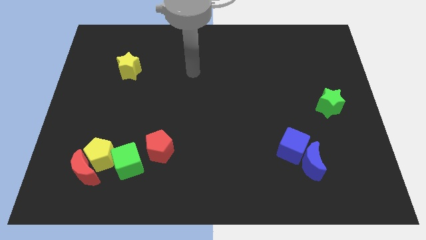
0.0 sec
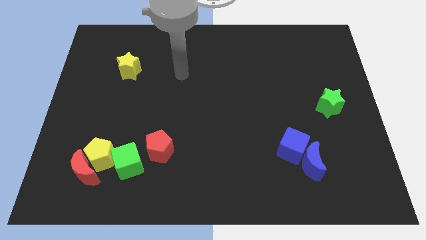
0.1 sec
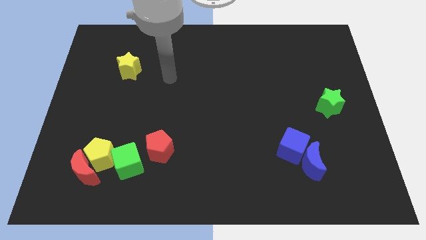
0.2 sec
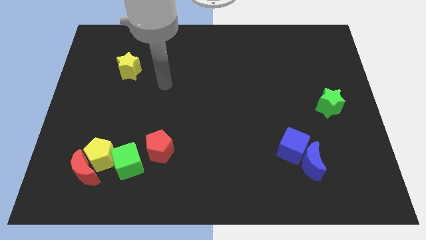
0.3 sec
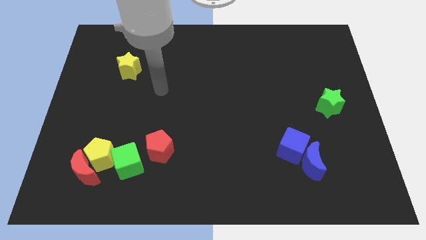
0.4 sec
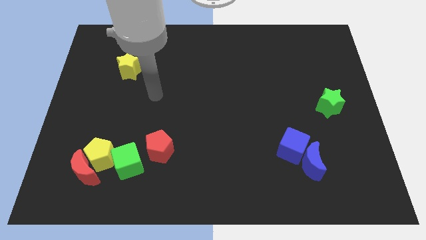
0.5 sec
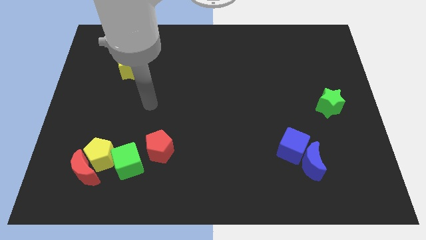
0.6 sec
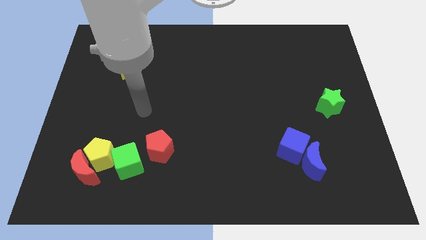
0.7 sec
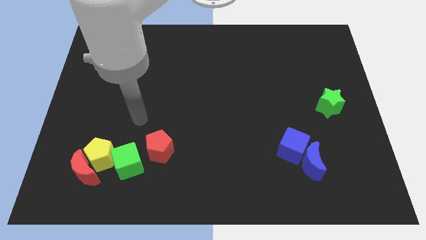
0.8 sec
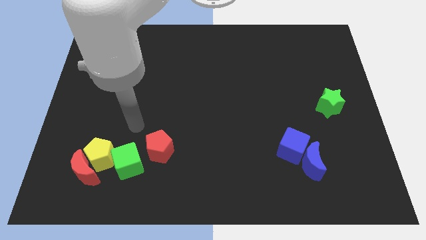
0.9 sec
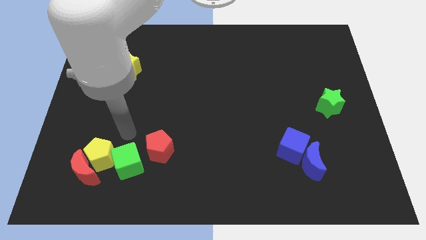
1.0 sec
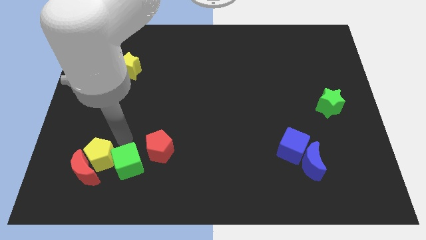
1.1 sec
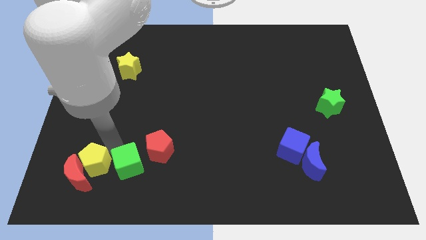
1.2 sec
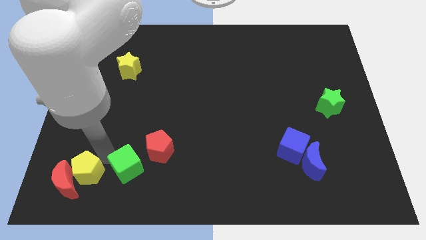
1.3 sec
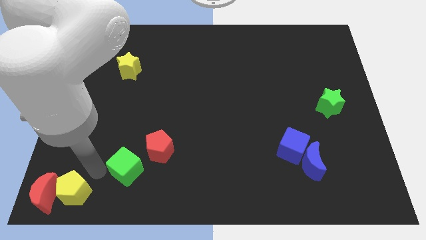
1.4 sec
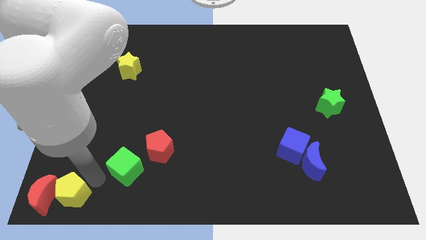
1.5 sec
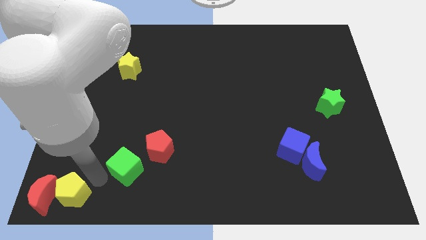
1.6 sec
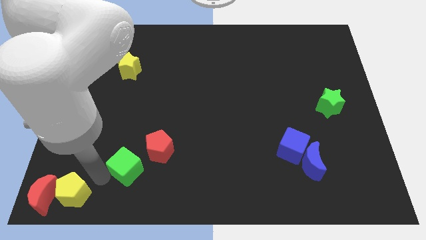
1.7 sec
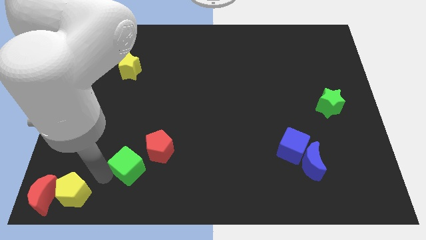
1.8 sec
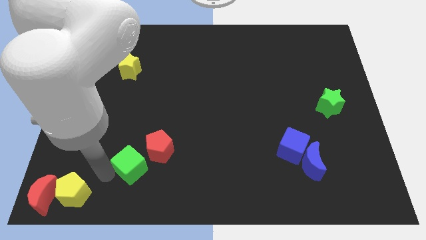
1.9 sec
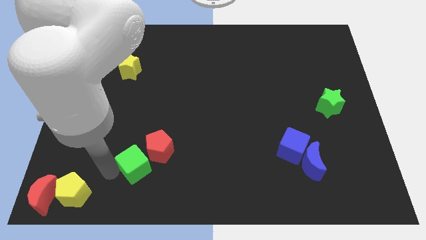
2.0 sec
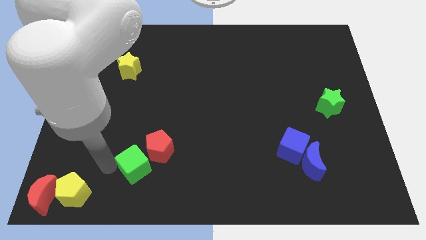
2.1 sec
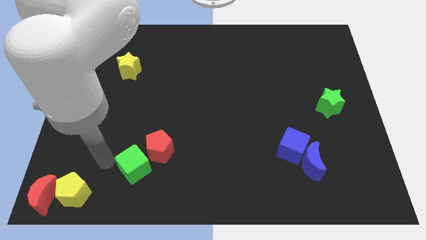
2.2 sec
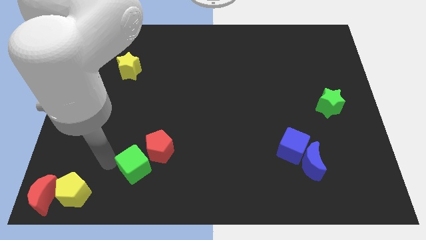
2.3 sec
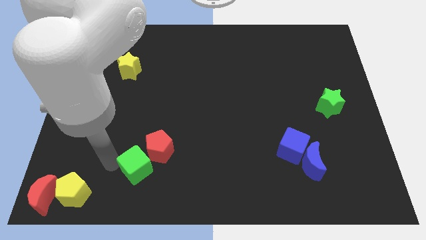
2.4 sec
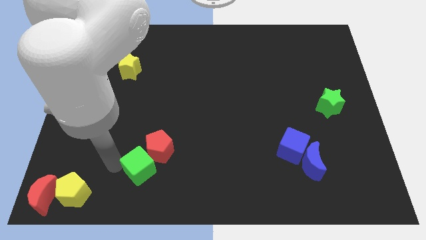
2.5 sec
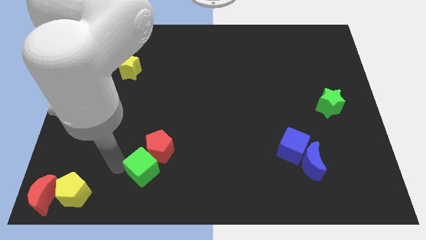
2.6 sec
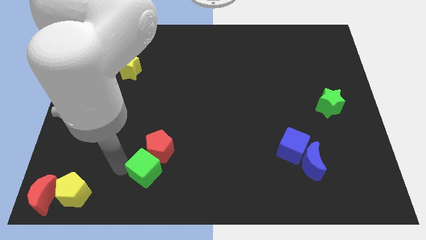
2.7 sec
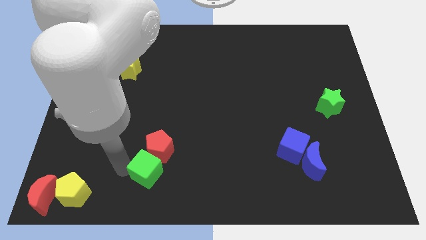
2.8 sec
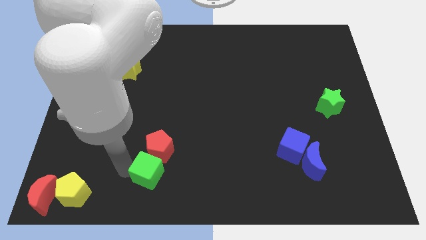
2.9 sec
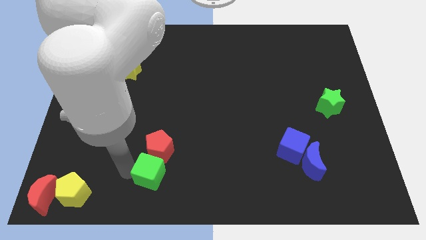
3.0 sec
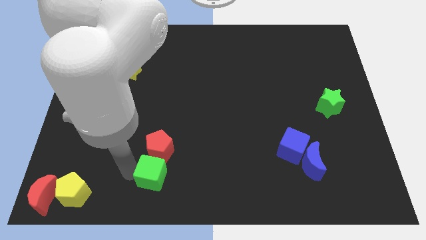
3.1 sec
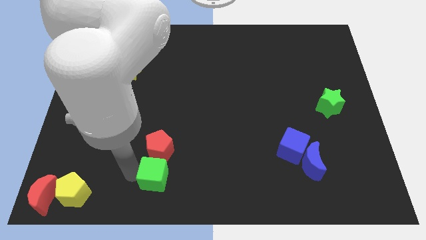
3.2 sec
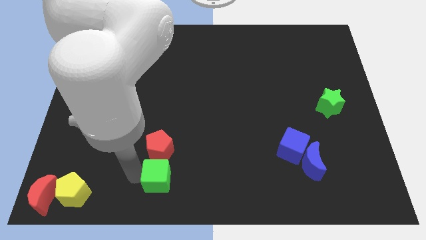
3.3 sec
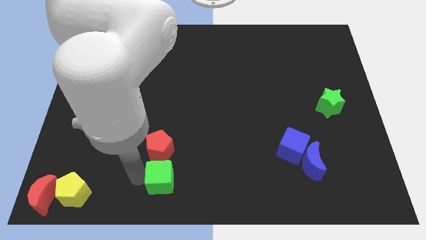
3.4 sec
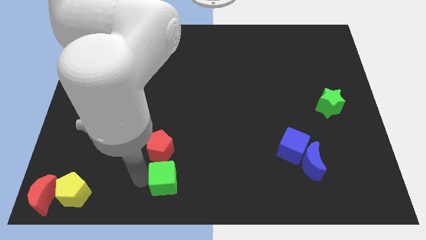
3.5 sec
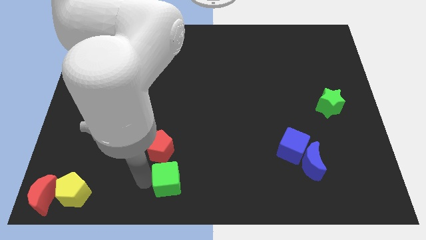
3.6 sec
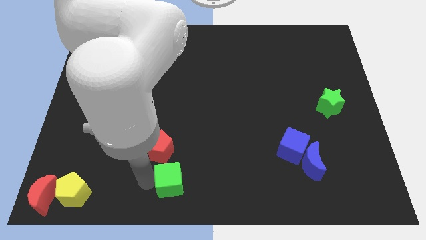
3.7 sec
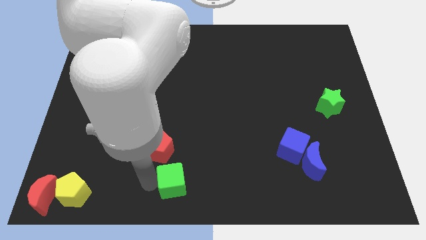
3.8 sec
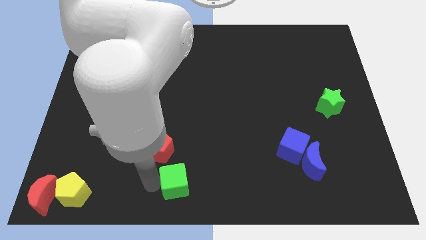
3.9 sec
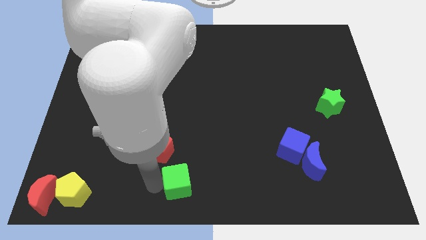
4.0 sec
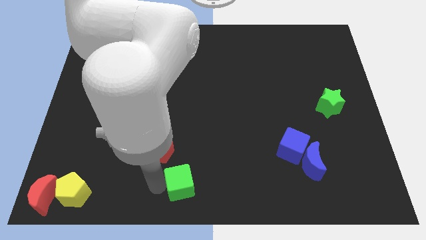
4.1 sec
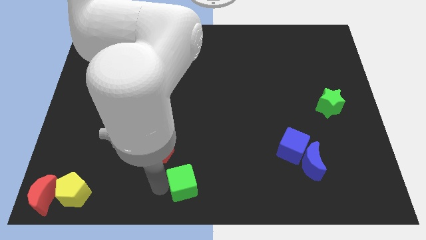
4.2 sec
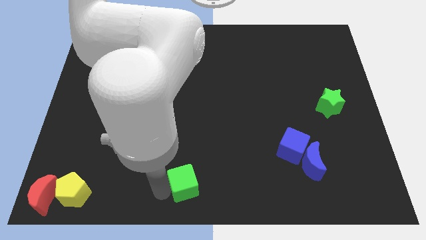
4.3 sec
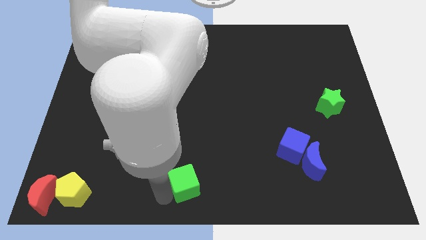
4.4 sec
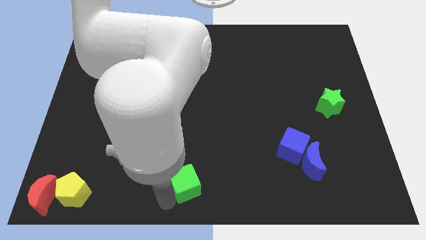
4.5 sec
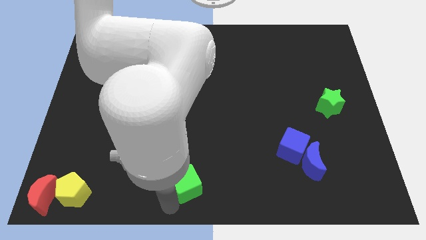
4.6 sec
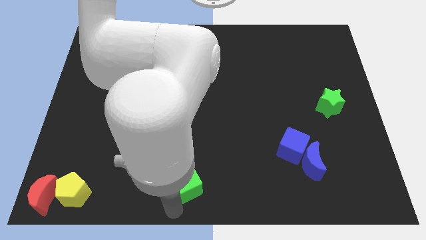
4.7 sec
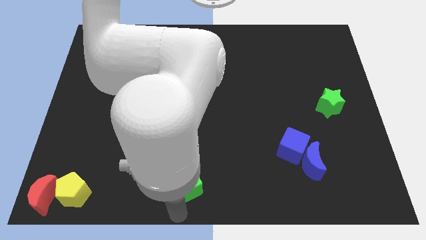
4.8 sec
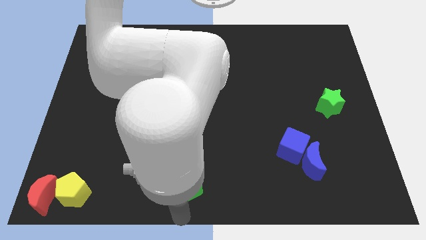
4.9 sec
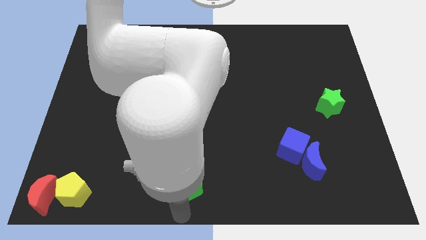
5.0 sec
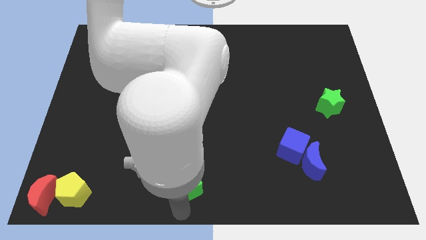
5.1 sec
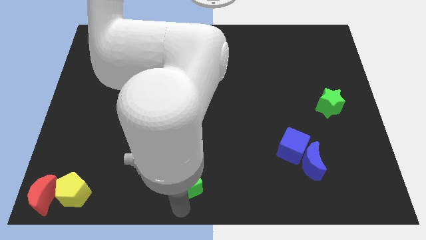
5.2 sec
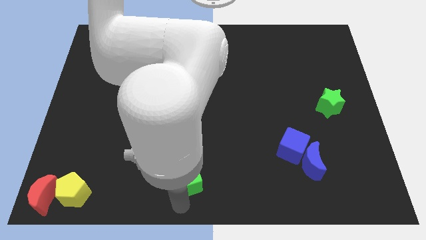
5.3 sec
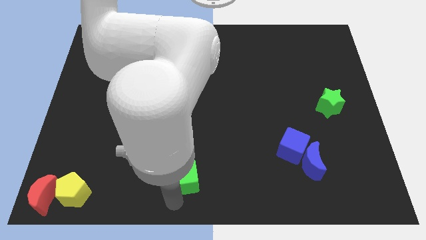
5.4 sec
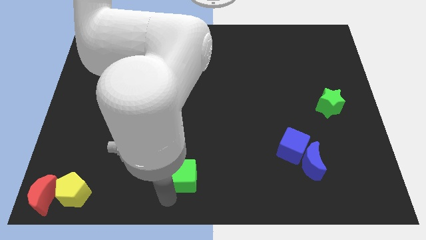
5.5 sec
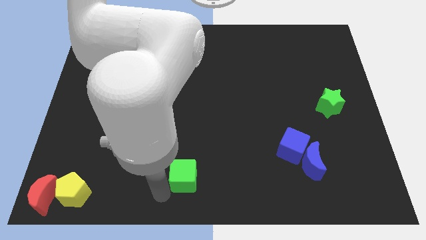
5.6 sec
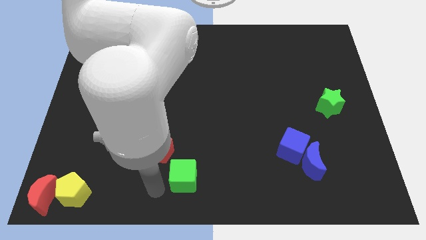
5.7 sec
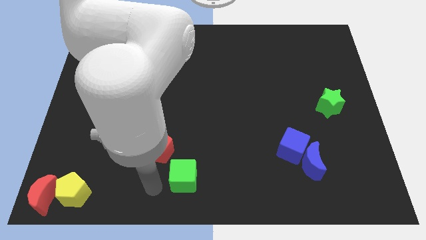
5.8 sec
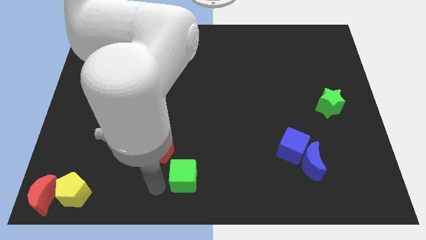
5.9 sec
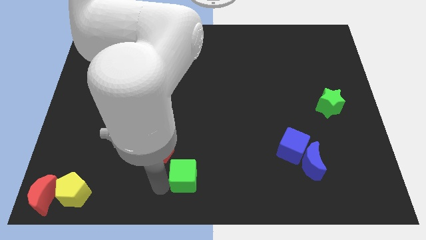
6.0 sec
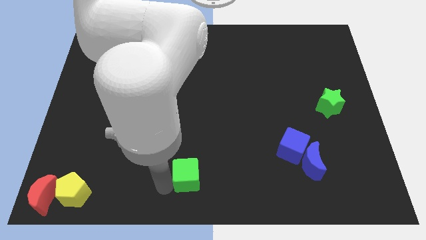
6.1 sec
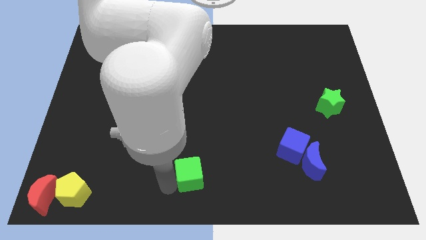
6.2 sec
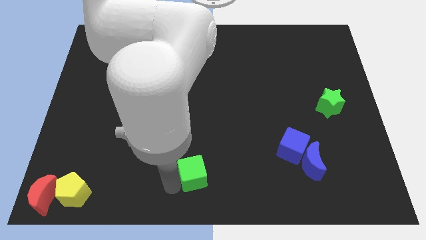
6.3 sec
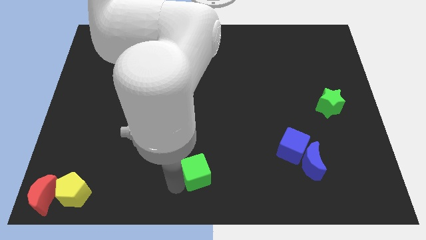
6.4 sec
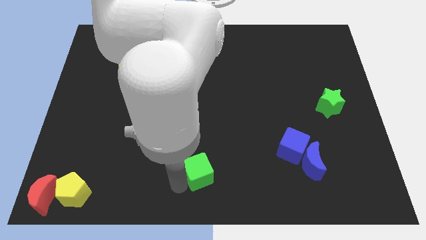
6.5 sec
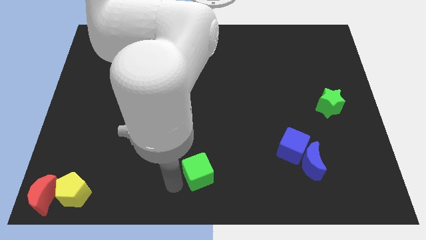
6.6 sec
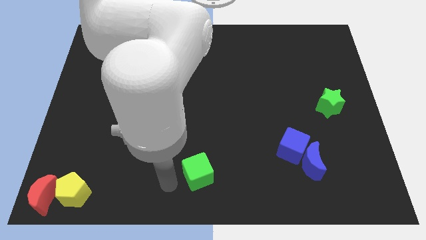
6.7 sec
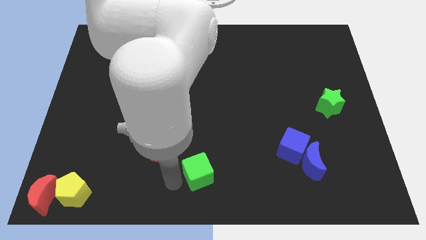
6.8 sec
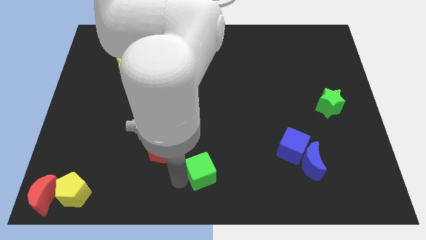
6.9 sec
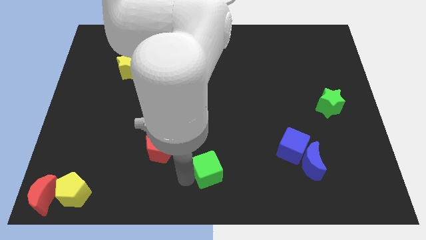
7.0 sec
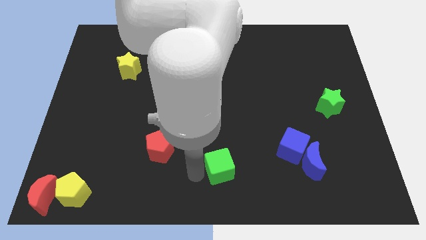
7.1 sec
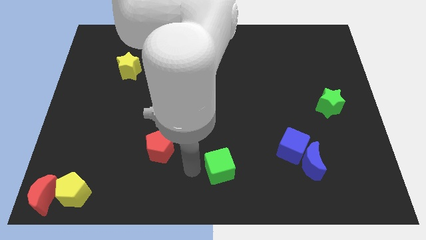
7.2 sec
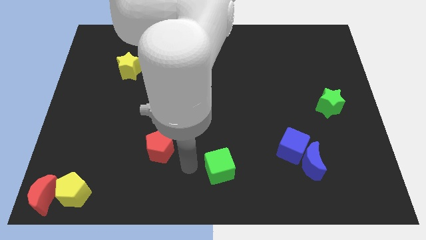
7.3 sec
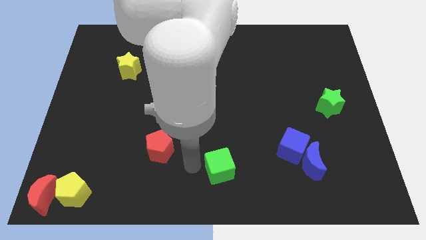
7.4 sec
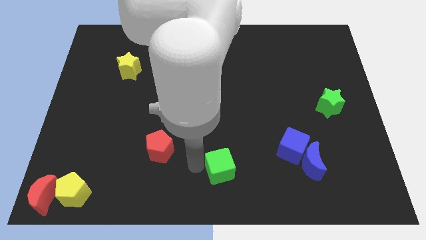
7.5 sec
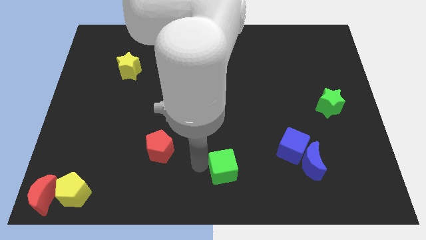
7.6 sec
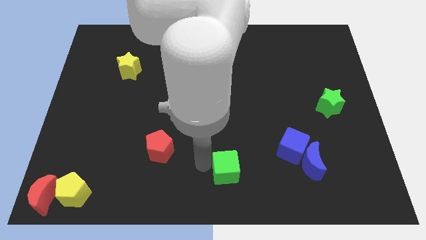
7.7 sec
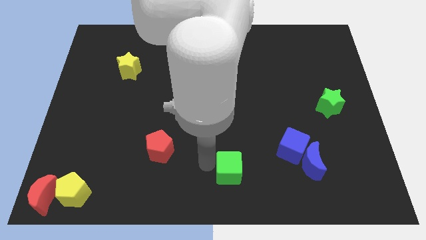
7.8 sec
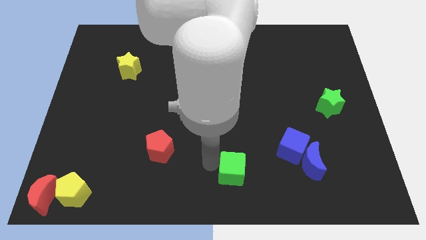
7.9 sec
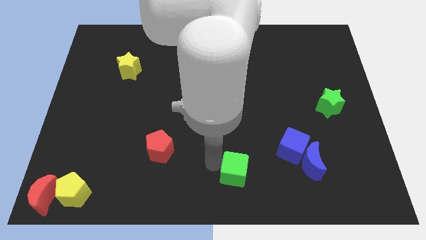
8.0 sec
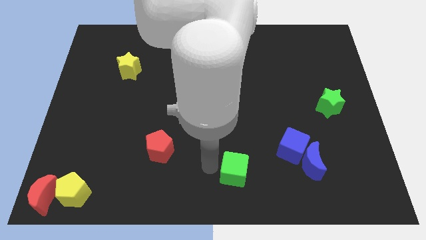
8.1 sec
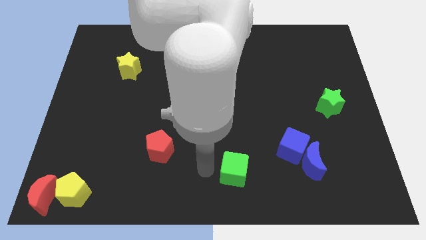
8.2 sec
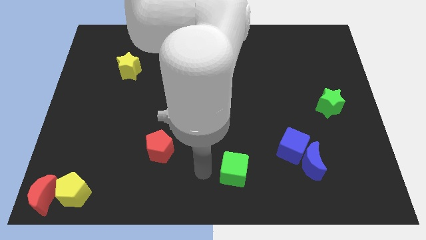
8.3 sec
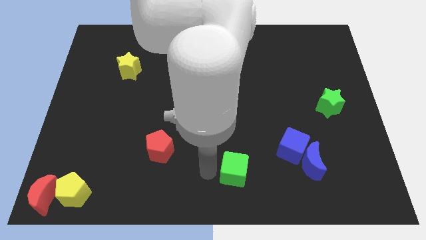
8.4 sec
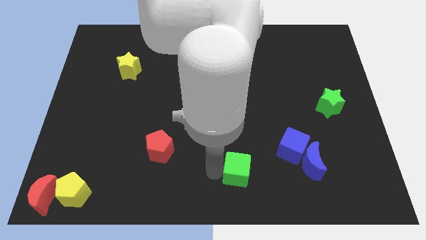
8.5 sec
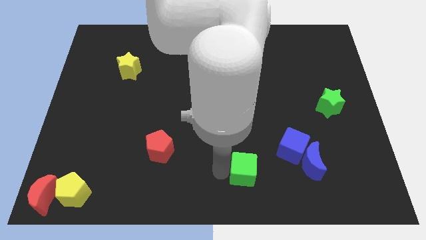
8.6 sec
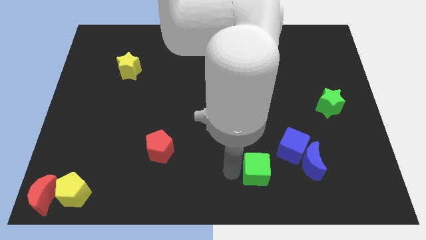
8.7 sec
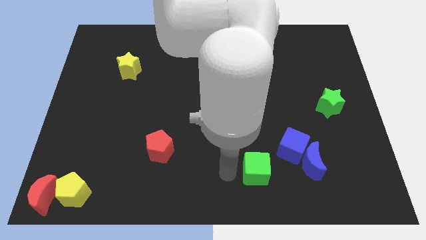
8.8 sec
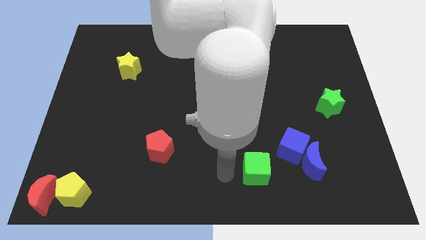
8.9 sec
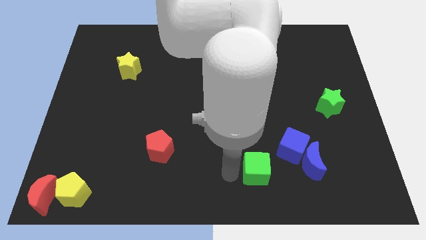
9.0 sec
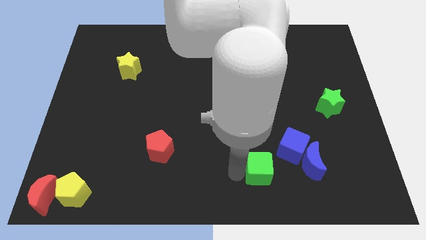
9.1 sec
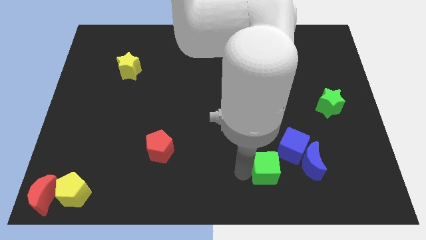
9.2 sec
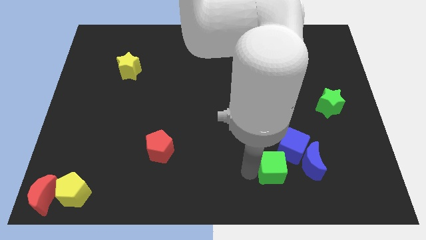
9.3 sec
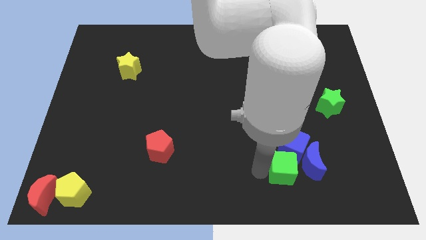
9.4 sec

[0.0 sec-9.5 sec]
slide the green cube towards the blue moon
